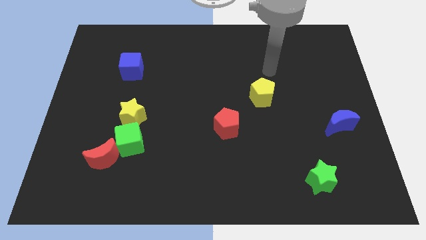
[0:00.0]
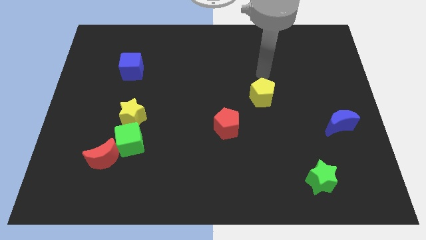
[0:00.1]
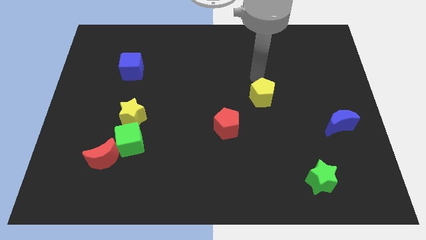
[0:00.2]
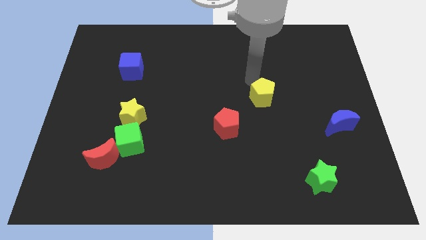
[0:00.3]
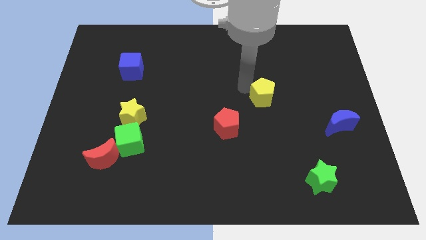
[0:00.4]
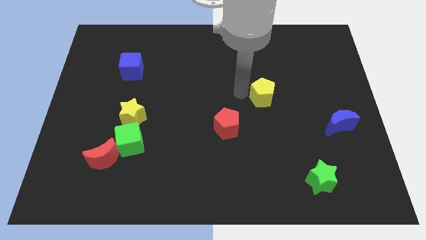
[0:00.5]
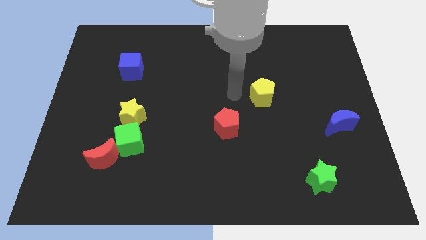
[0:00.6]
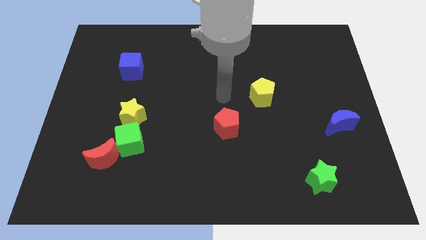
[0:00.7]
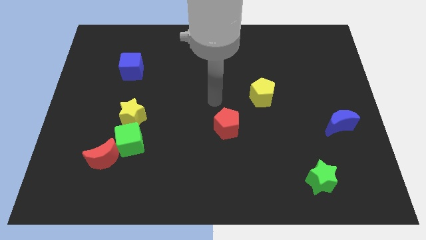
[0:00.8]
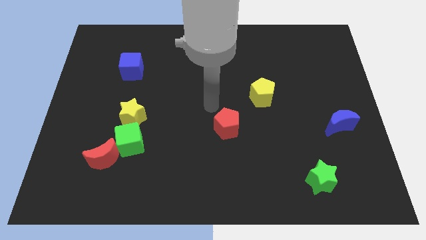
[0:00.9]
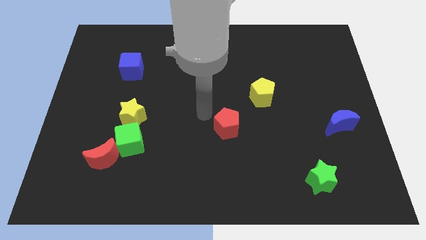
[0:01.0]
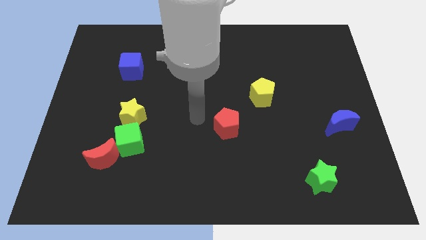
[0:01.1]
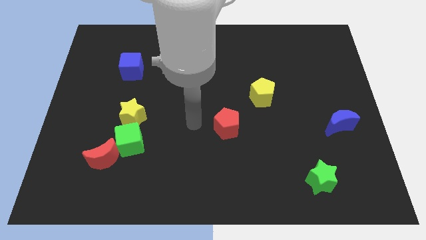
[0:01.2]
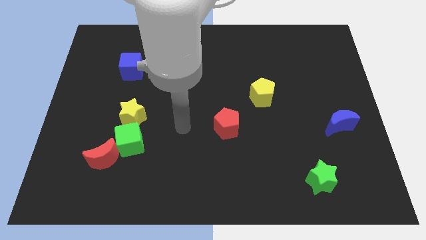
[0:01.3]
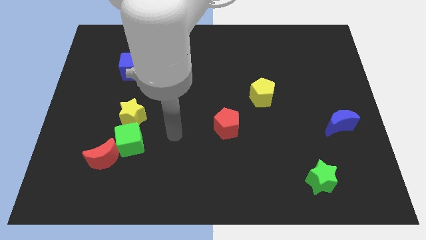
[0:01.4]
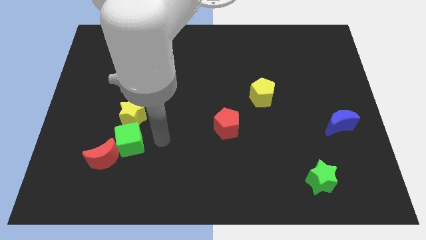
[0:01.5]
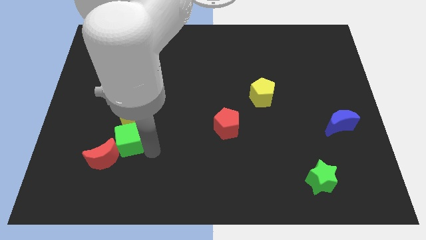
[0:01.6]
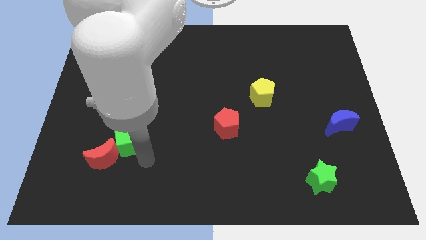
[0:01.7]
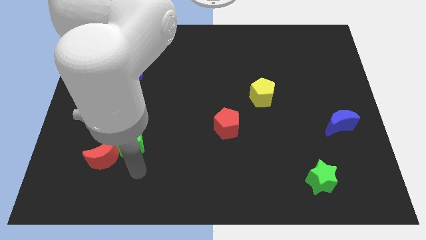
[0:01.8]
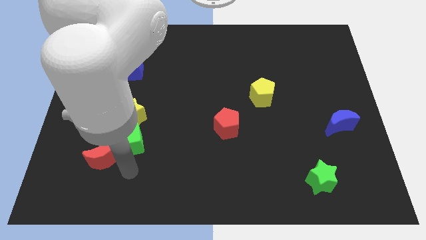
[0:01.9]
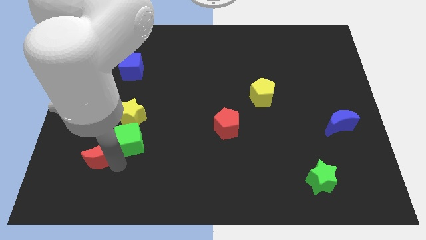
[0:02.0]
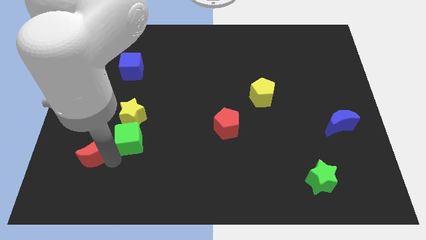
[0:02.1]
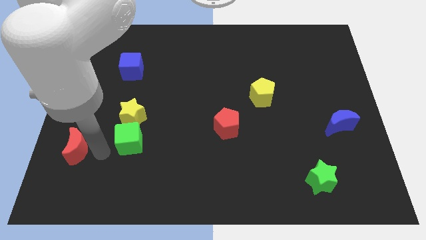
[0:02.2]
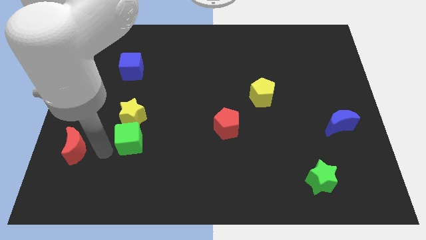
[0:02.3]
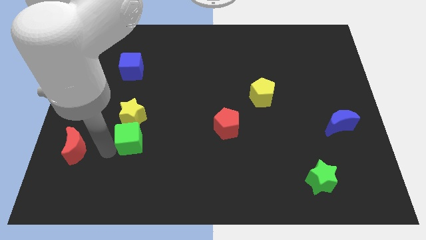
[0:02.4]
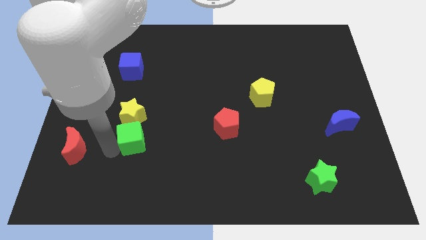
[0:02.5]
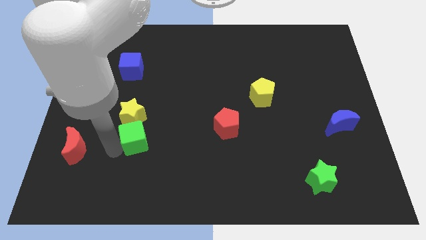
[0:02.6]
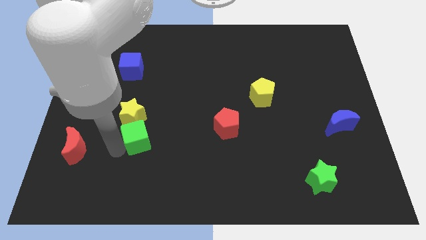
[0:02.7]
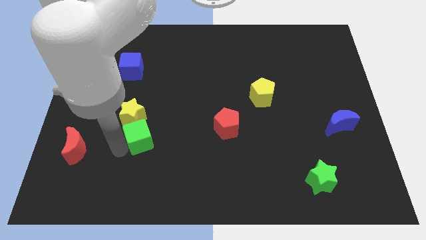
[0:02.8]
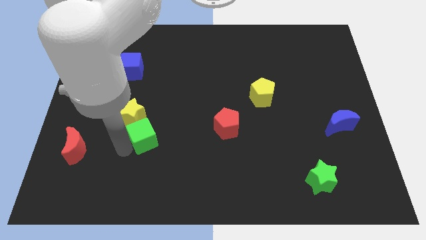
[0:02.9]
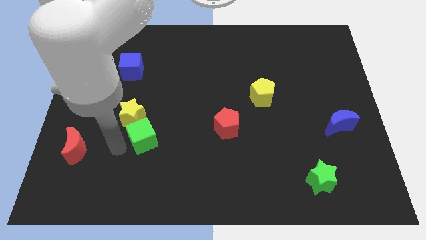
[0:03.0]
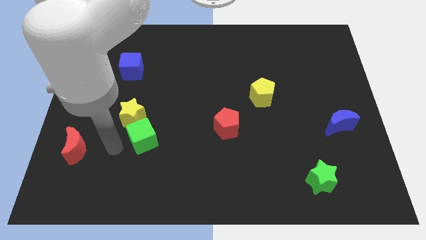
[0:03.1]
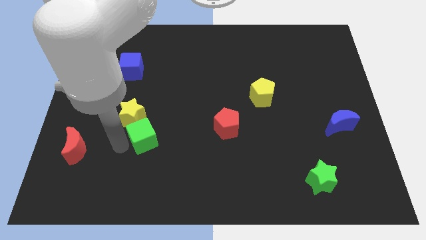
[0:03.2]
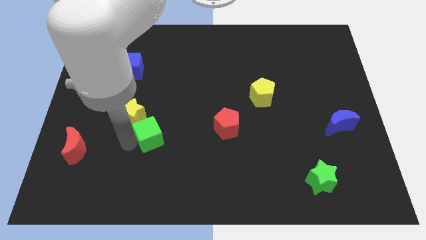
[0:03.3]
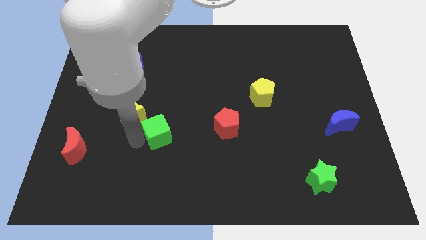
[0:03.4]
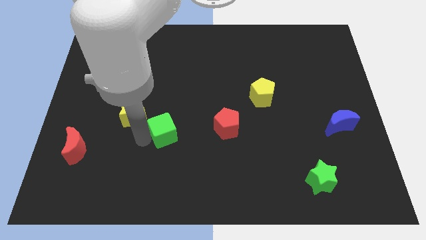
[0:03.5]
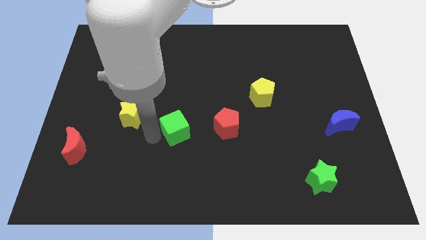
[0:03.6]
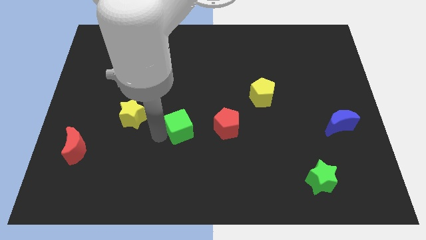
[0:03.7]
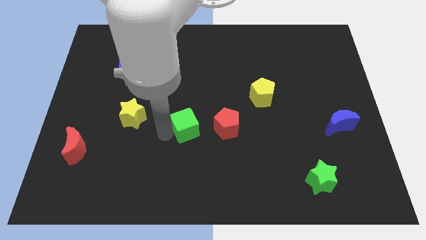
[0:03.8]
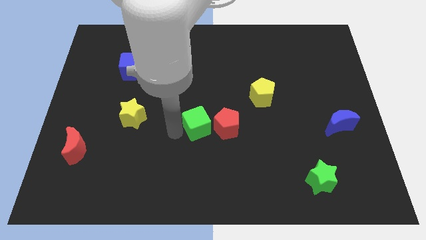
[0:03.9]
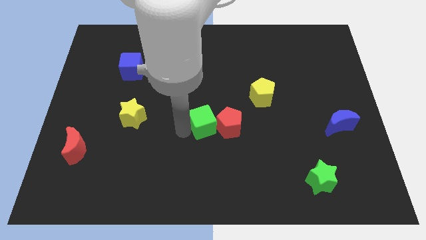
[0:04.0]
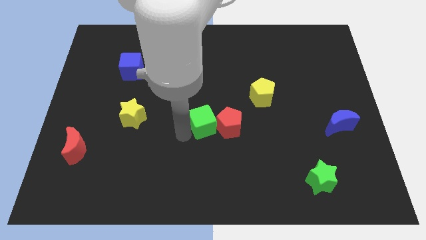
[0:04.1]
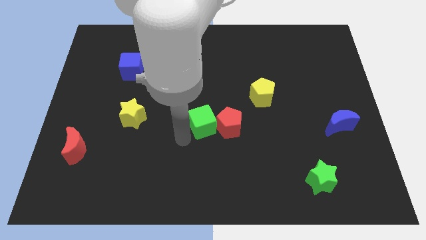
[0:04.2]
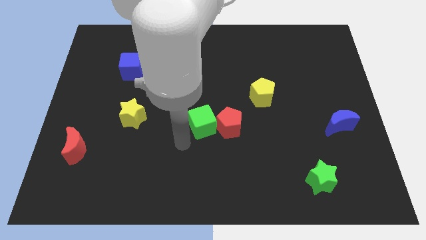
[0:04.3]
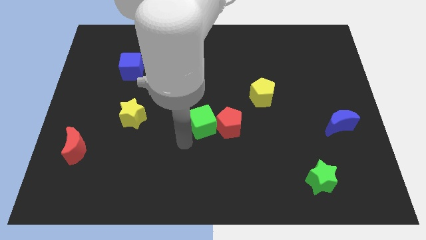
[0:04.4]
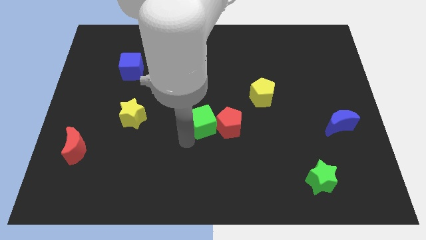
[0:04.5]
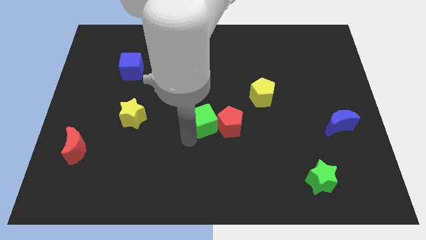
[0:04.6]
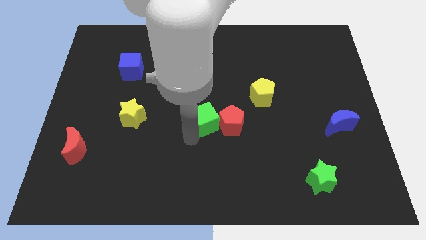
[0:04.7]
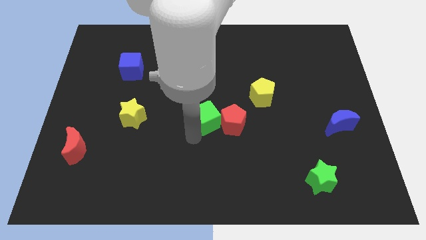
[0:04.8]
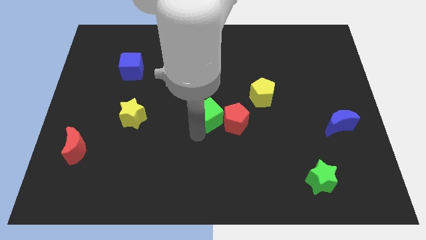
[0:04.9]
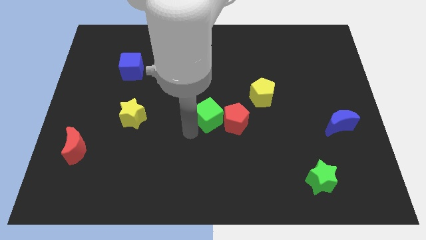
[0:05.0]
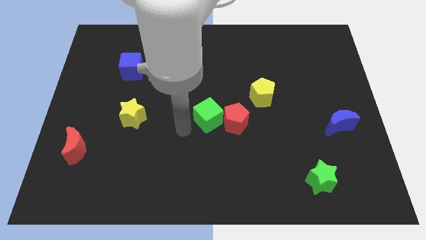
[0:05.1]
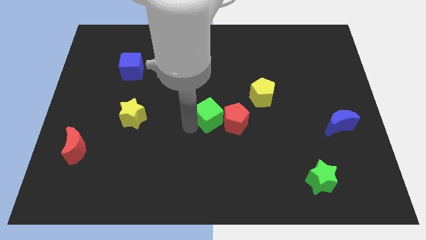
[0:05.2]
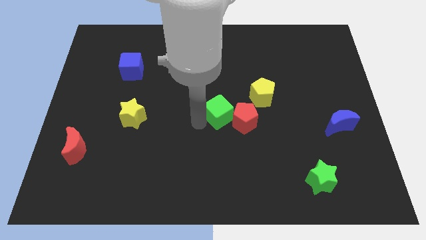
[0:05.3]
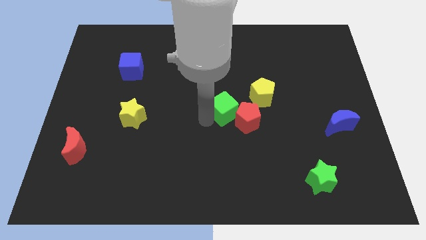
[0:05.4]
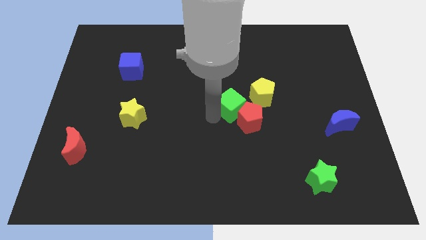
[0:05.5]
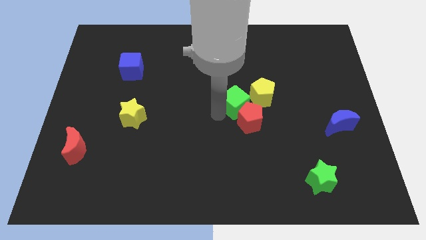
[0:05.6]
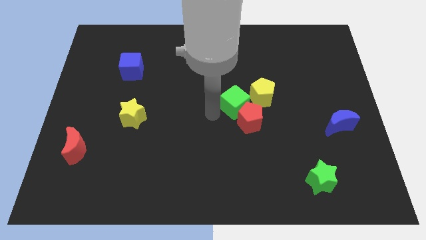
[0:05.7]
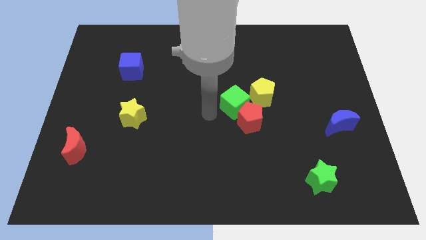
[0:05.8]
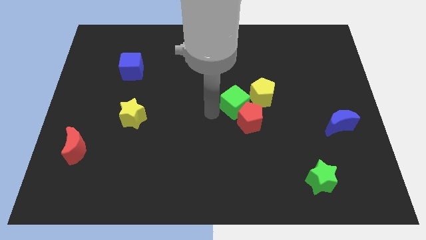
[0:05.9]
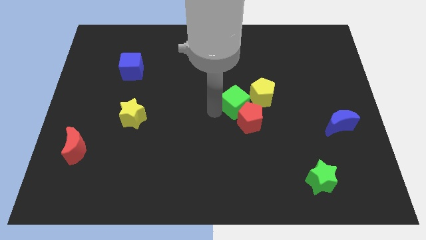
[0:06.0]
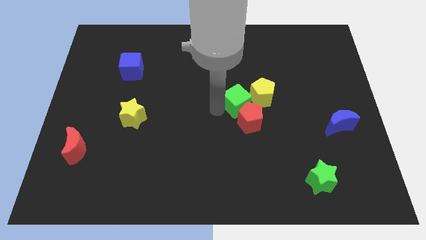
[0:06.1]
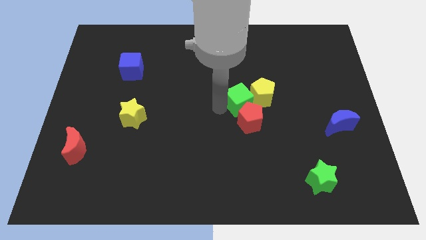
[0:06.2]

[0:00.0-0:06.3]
put the green cube next to the yellow pentagon

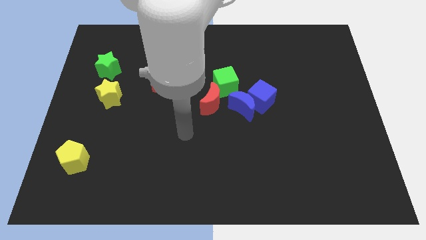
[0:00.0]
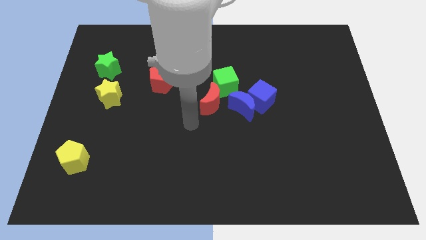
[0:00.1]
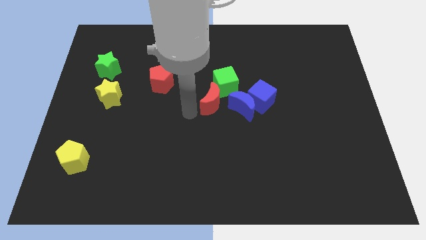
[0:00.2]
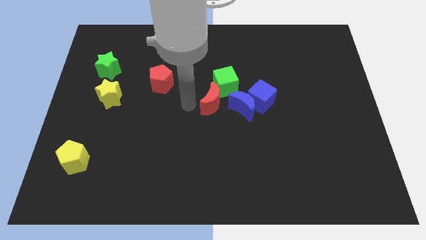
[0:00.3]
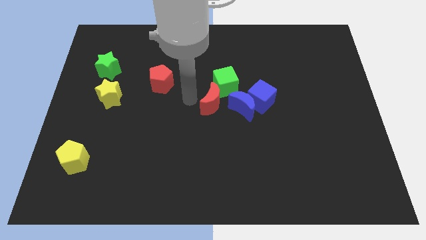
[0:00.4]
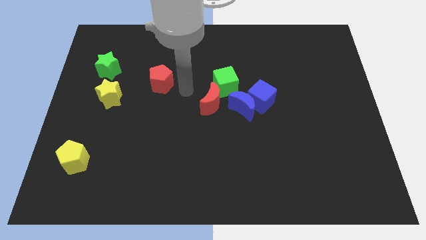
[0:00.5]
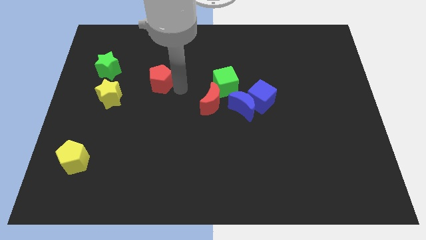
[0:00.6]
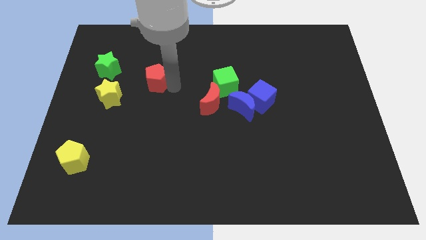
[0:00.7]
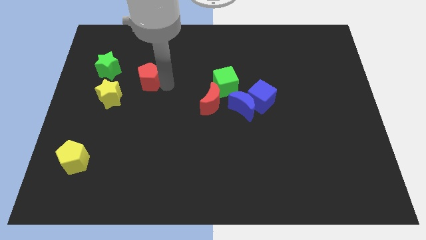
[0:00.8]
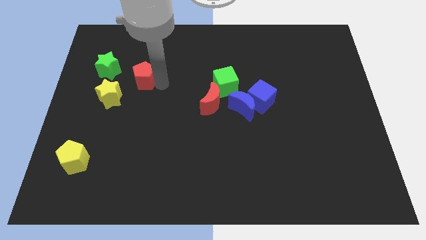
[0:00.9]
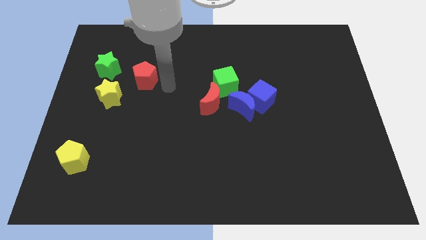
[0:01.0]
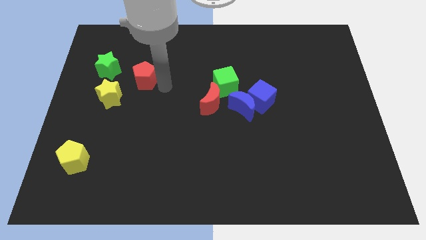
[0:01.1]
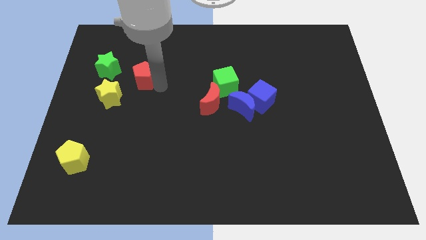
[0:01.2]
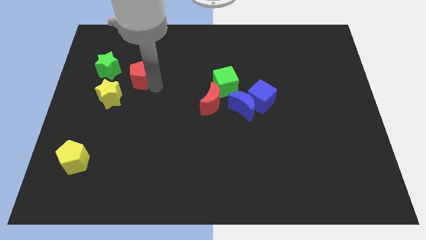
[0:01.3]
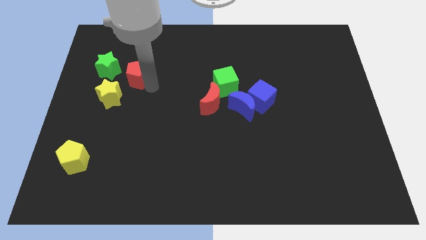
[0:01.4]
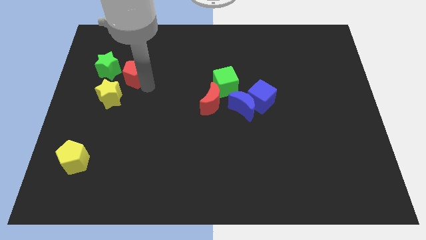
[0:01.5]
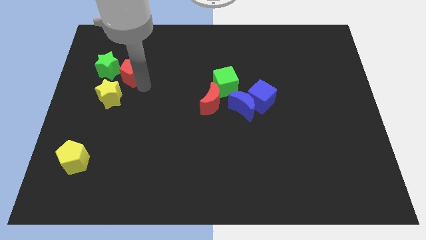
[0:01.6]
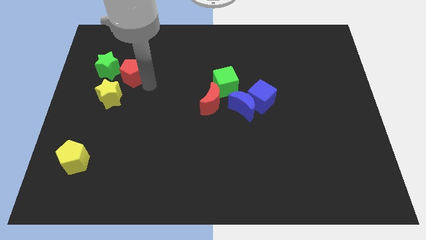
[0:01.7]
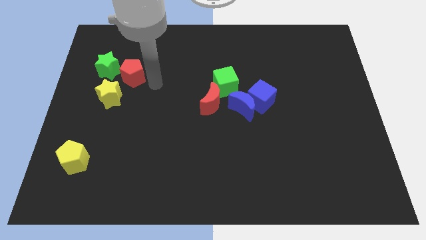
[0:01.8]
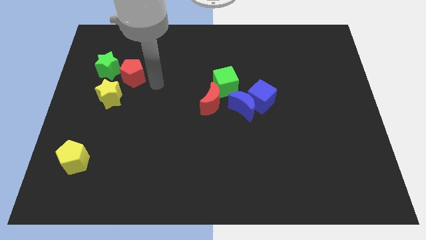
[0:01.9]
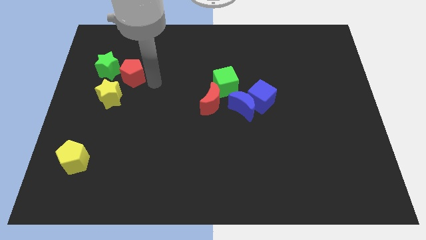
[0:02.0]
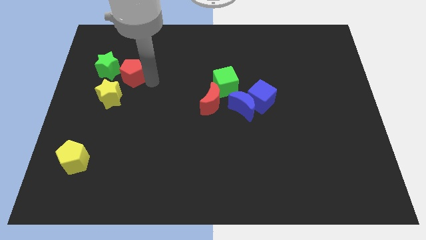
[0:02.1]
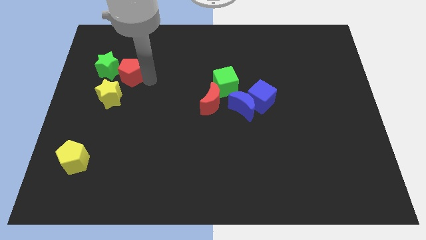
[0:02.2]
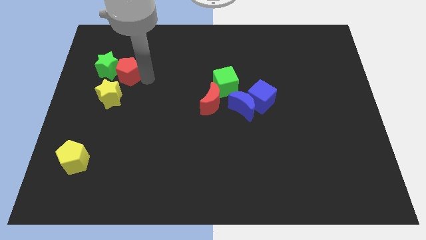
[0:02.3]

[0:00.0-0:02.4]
push the red pentagon next to the green star
